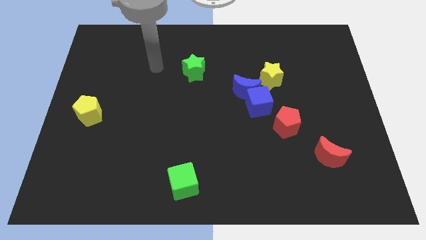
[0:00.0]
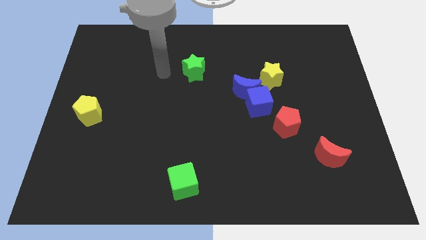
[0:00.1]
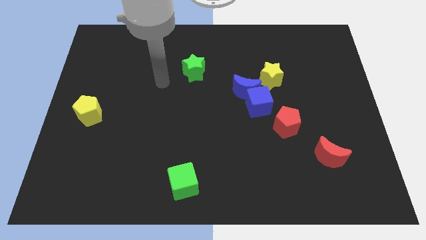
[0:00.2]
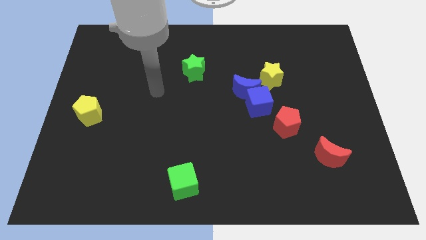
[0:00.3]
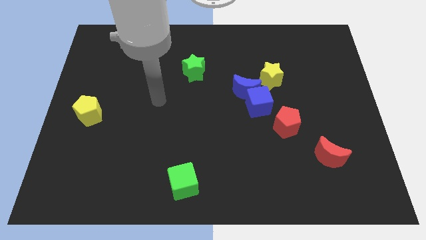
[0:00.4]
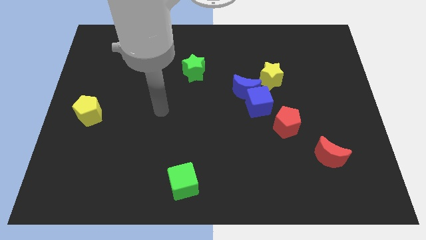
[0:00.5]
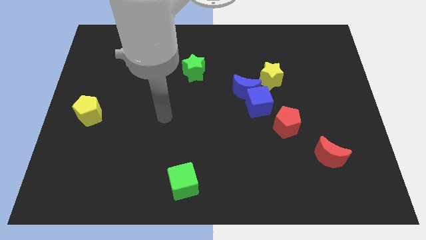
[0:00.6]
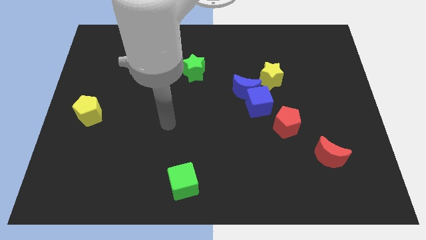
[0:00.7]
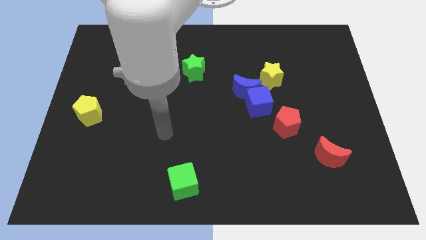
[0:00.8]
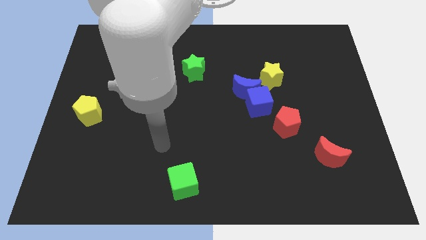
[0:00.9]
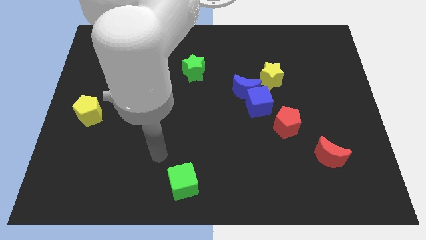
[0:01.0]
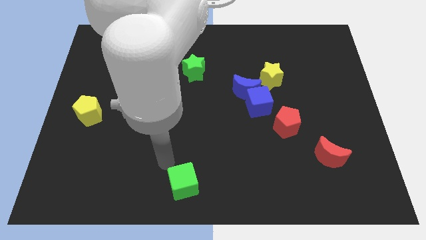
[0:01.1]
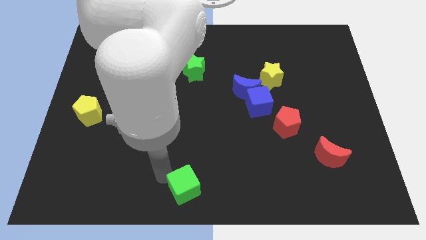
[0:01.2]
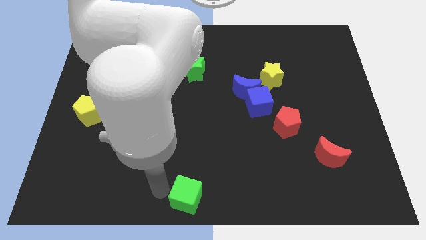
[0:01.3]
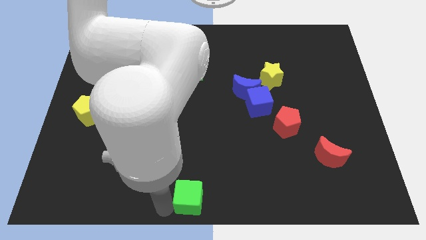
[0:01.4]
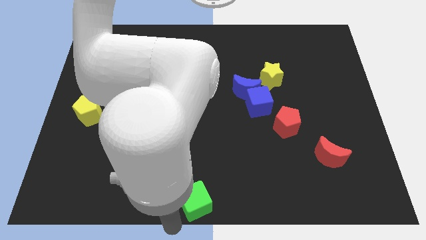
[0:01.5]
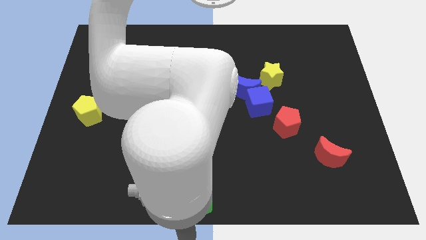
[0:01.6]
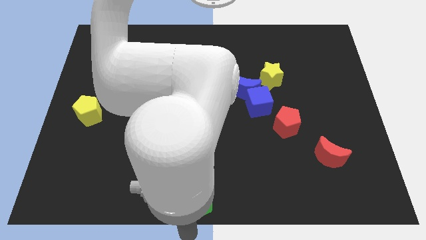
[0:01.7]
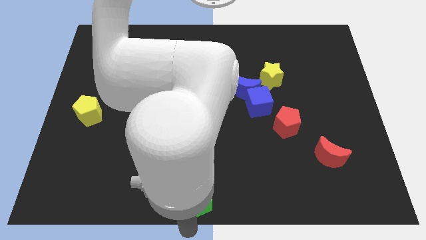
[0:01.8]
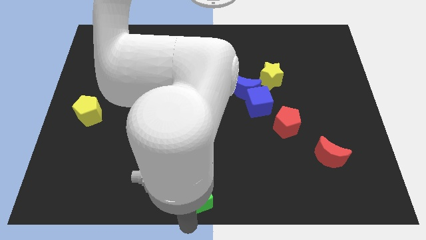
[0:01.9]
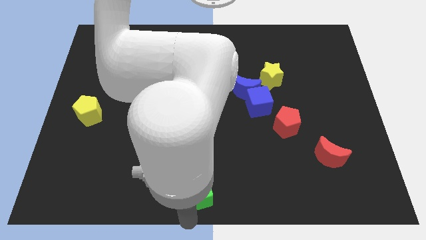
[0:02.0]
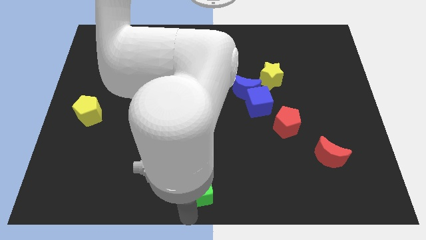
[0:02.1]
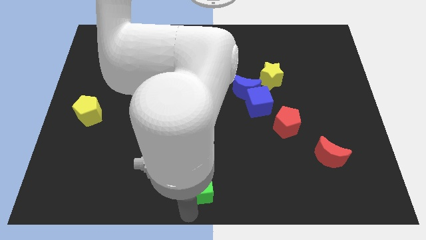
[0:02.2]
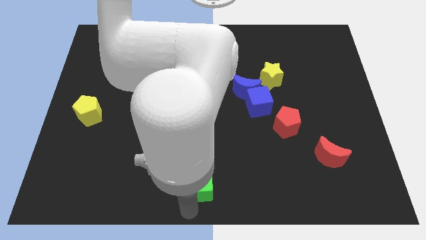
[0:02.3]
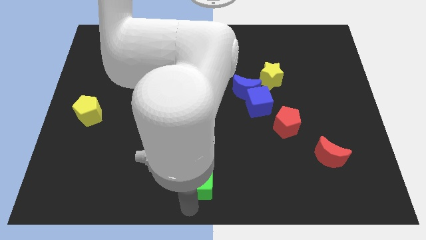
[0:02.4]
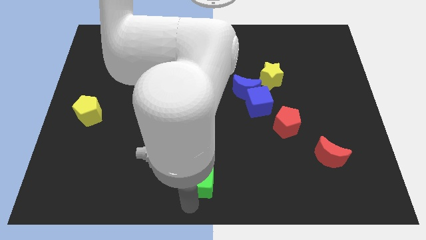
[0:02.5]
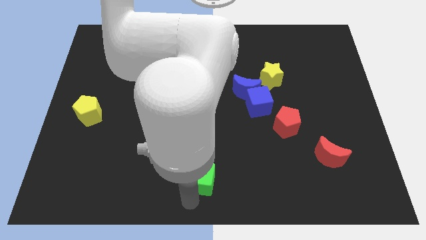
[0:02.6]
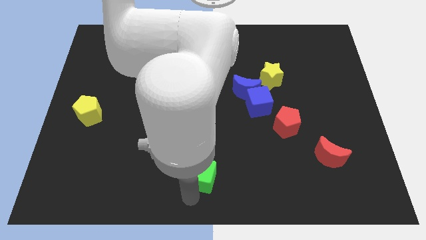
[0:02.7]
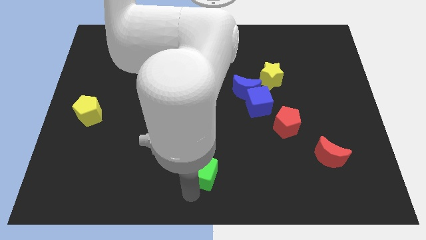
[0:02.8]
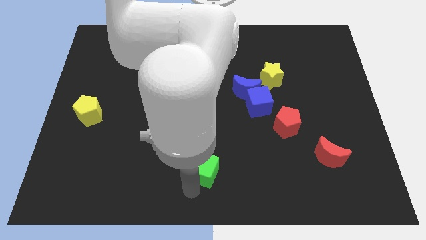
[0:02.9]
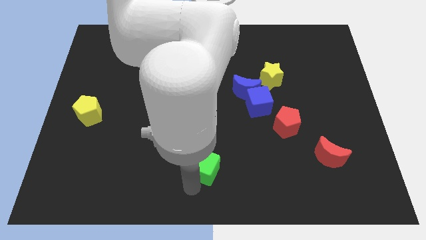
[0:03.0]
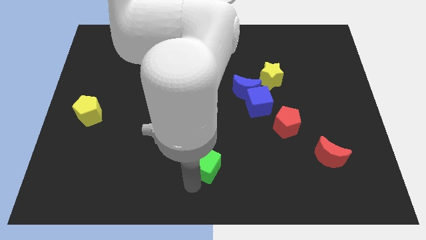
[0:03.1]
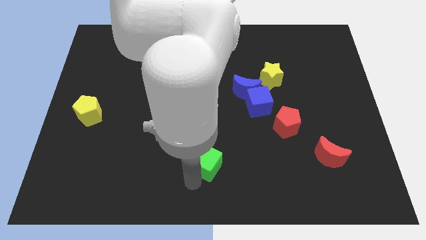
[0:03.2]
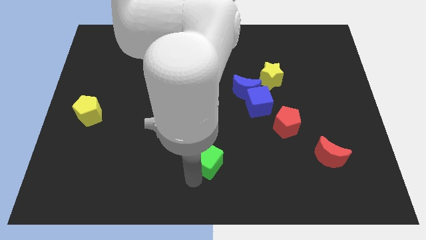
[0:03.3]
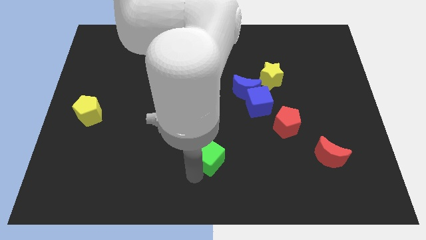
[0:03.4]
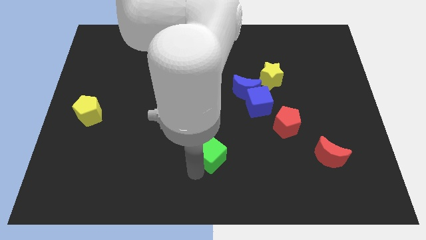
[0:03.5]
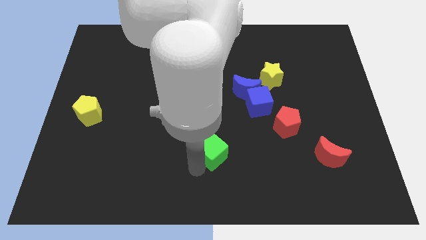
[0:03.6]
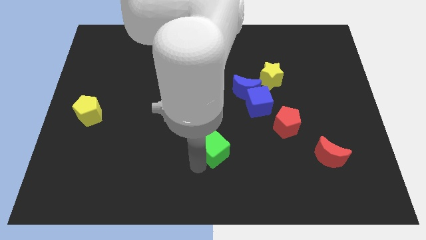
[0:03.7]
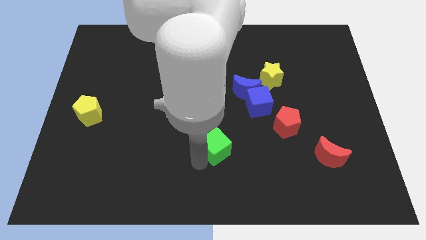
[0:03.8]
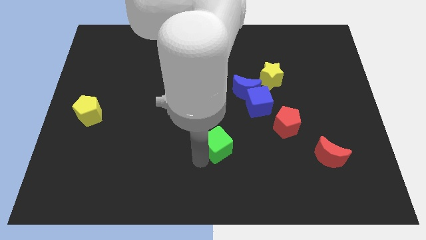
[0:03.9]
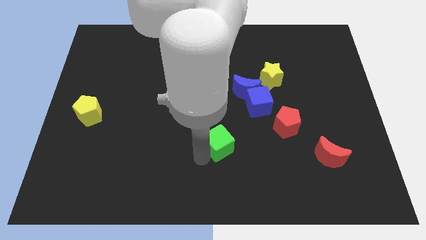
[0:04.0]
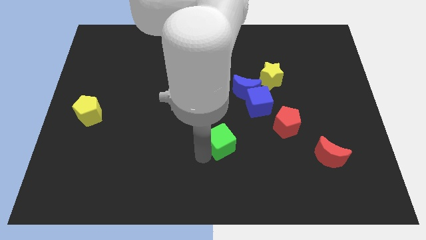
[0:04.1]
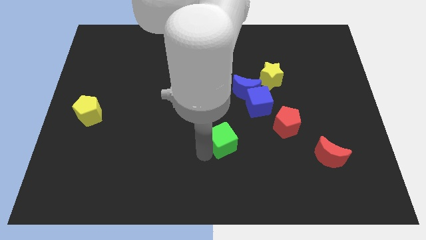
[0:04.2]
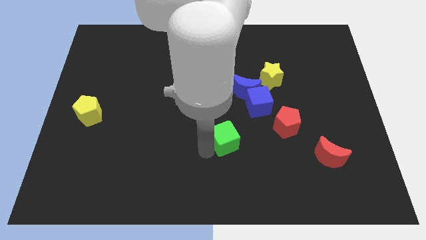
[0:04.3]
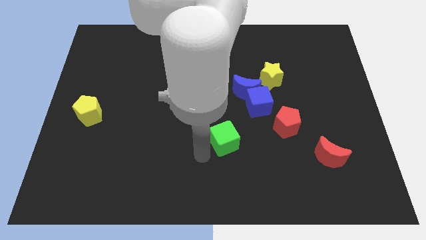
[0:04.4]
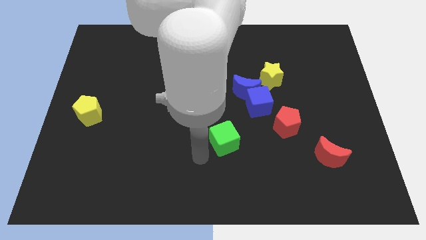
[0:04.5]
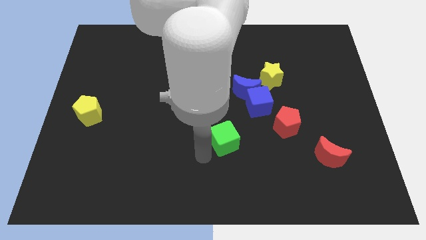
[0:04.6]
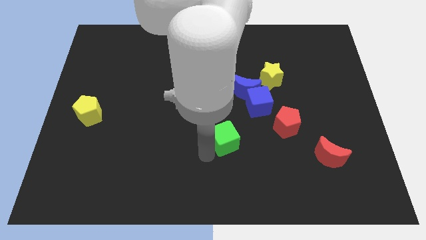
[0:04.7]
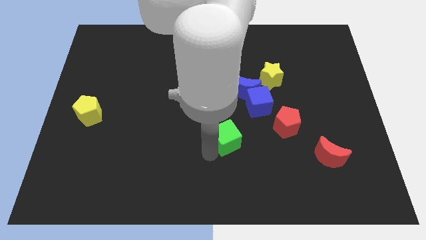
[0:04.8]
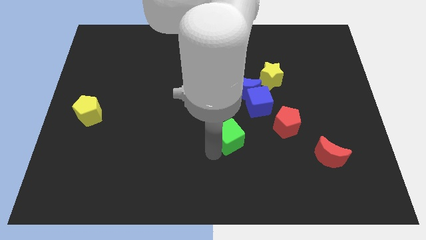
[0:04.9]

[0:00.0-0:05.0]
push the green cube to the bottom side of the blue moon

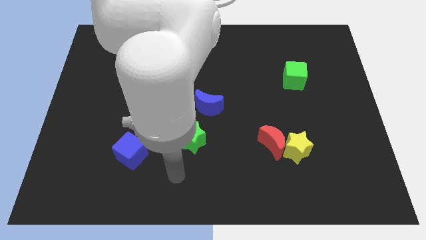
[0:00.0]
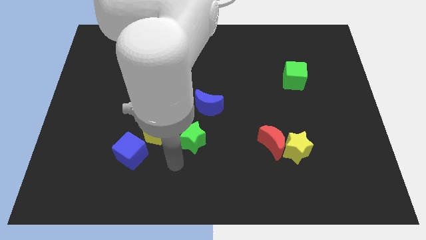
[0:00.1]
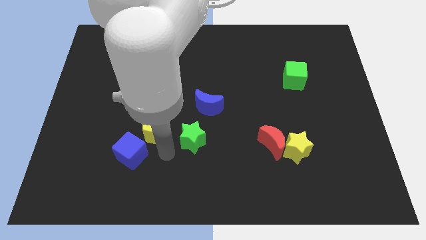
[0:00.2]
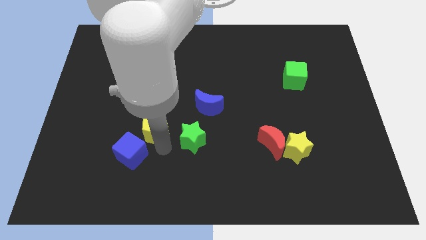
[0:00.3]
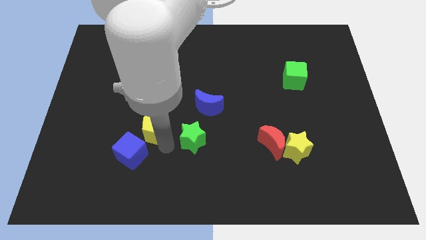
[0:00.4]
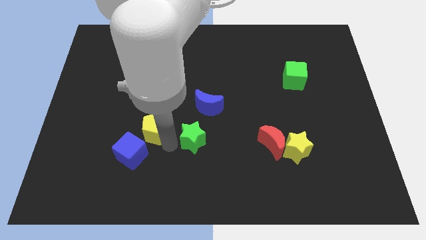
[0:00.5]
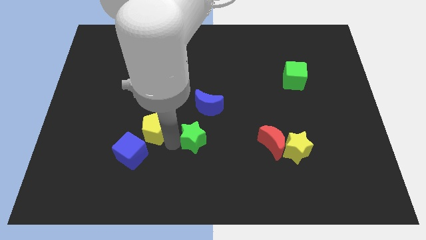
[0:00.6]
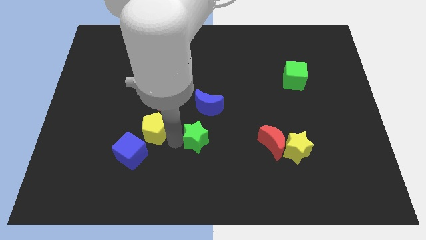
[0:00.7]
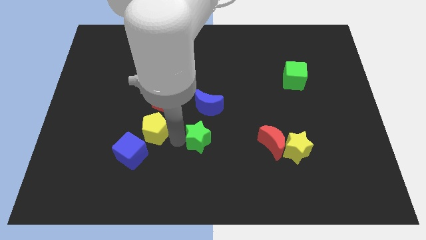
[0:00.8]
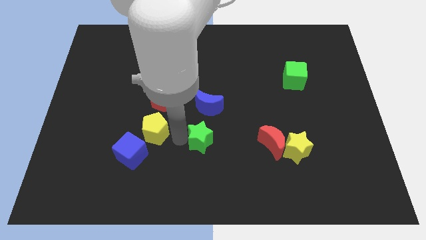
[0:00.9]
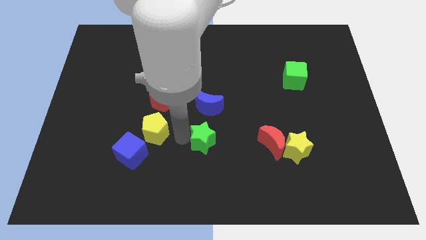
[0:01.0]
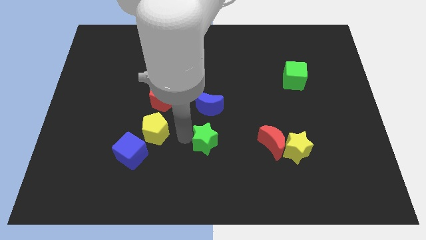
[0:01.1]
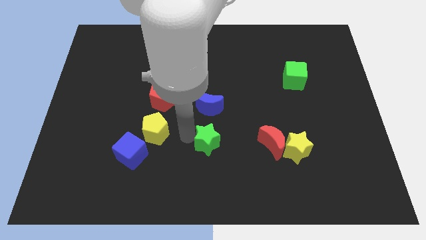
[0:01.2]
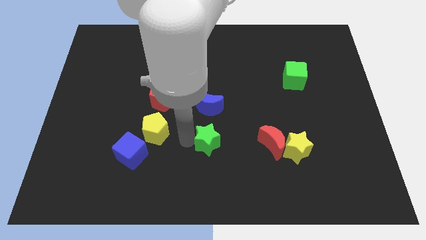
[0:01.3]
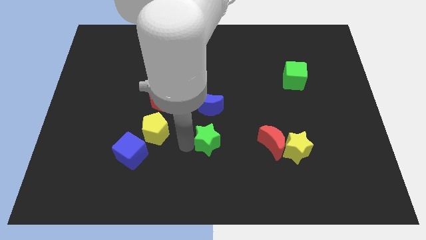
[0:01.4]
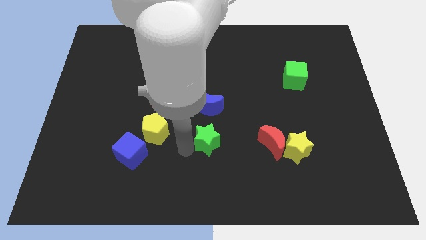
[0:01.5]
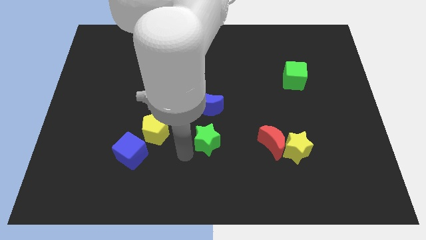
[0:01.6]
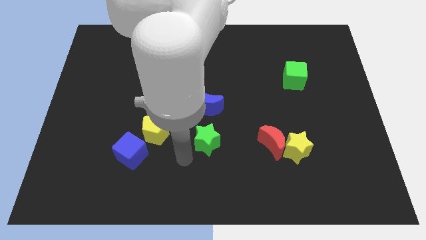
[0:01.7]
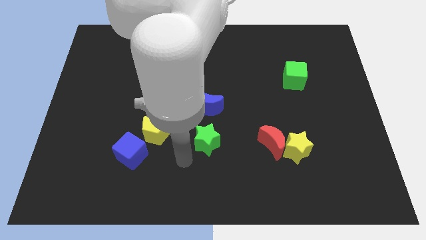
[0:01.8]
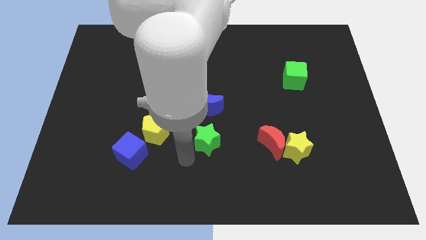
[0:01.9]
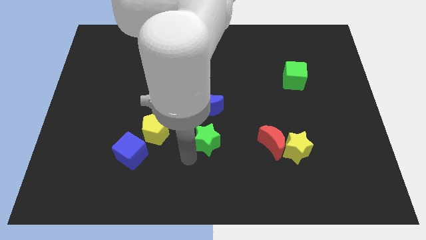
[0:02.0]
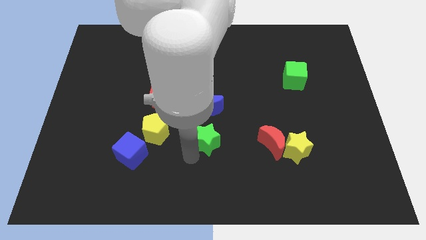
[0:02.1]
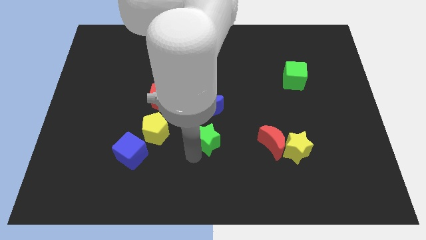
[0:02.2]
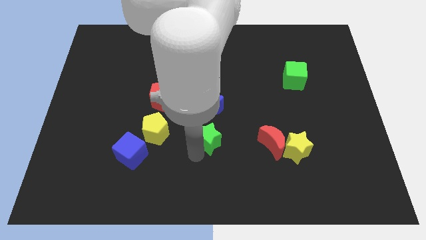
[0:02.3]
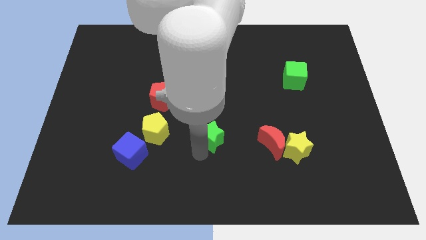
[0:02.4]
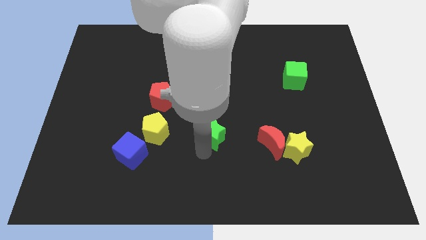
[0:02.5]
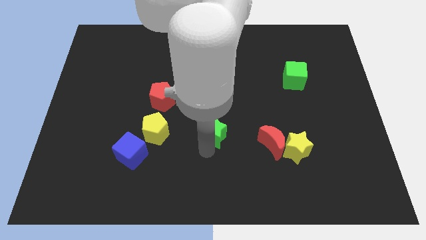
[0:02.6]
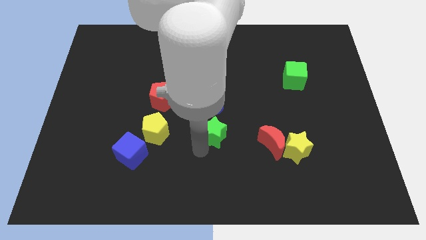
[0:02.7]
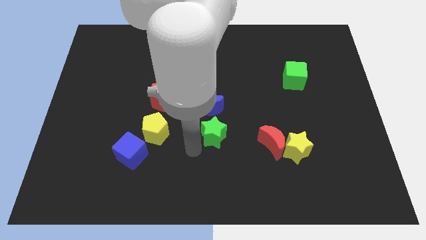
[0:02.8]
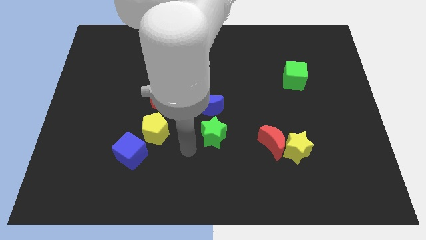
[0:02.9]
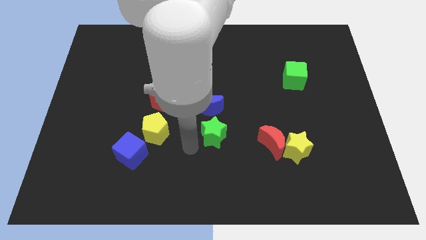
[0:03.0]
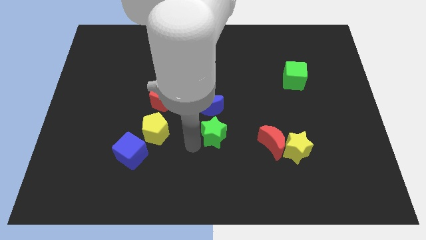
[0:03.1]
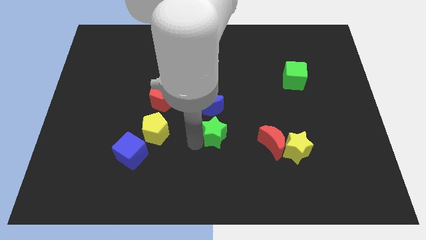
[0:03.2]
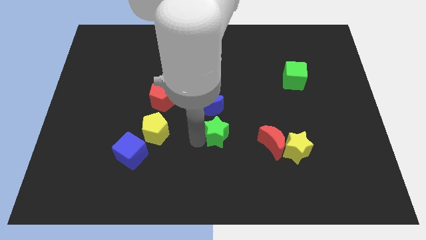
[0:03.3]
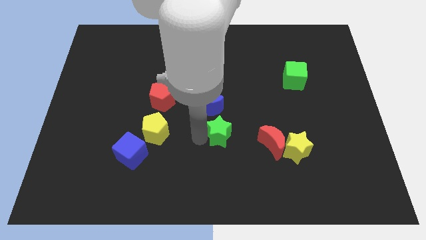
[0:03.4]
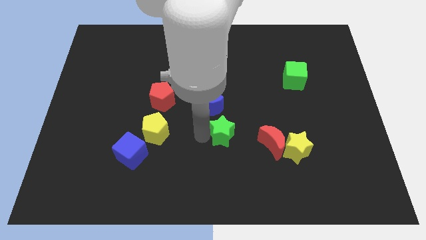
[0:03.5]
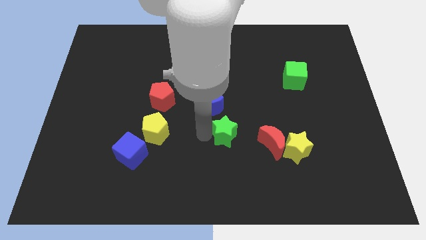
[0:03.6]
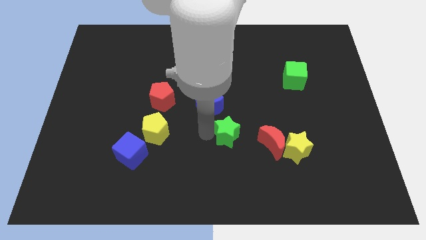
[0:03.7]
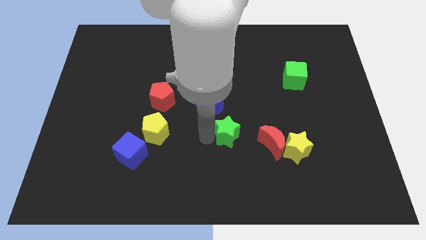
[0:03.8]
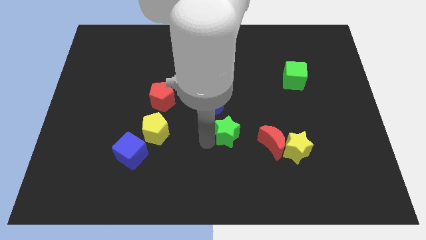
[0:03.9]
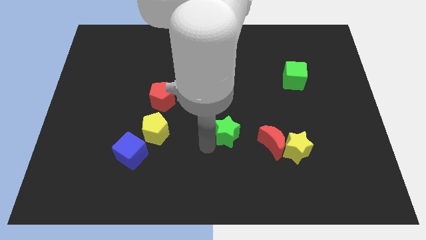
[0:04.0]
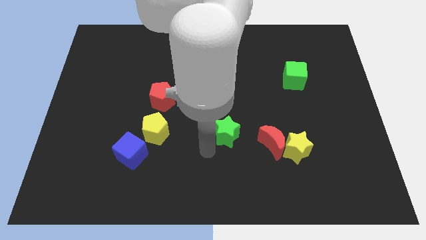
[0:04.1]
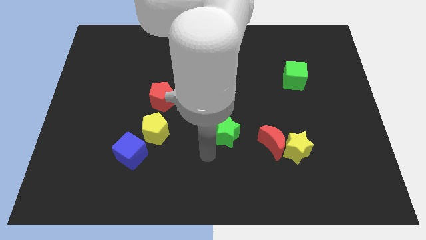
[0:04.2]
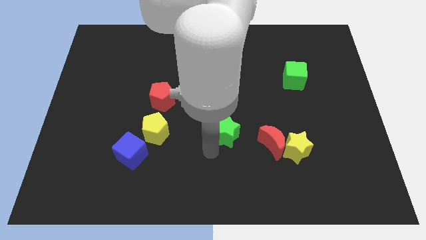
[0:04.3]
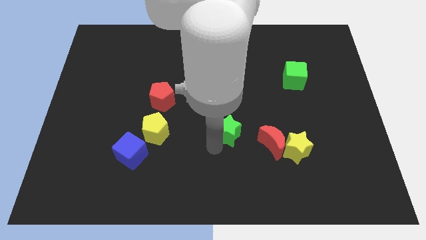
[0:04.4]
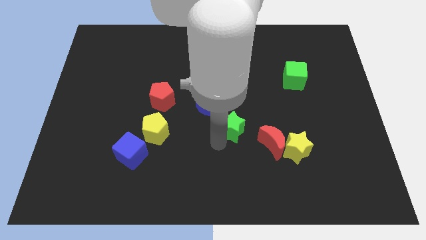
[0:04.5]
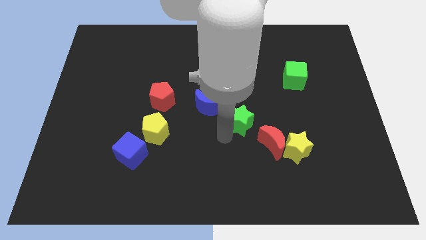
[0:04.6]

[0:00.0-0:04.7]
slide the green star to the right of the blue moon
